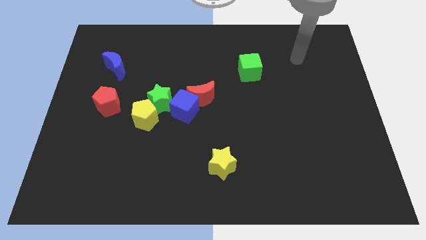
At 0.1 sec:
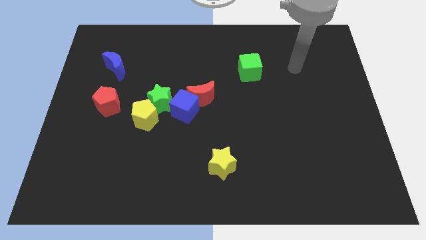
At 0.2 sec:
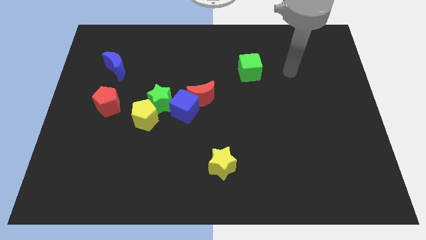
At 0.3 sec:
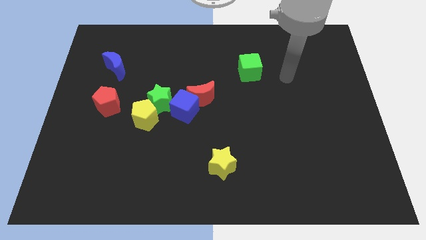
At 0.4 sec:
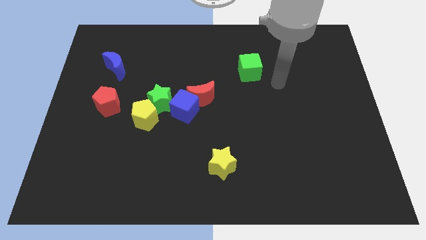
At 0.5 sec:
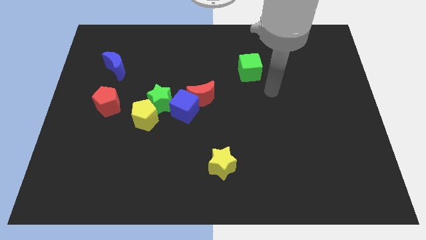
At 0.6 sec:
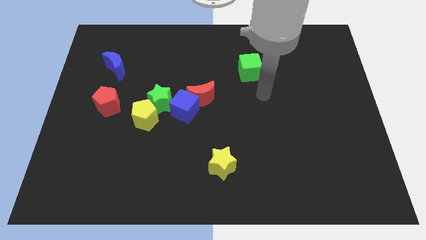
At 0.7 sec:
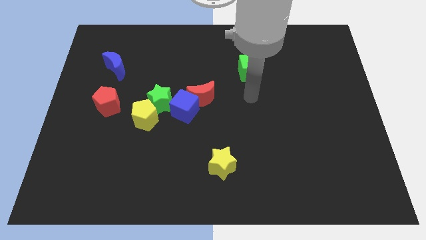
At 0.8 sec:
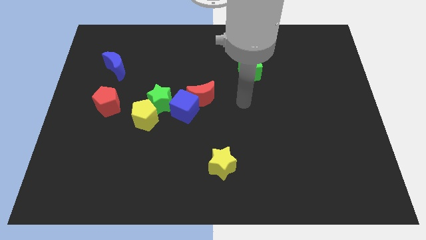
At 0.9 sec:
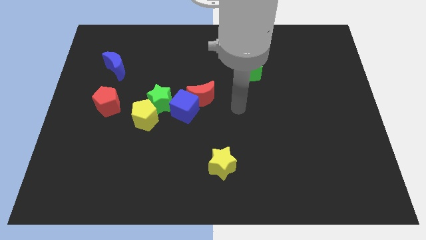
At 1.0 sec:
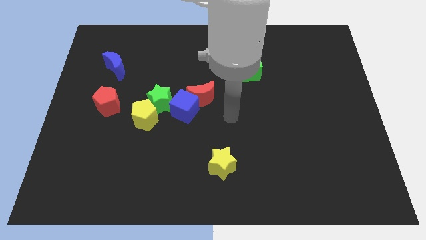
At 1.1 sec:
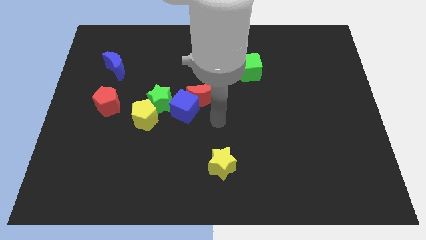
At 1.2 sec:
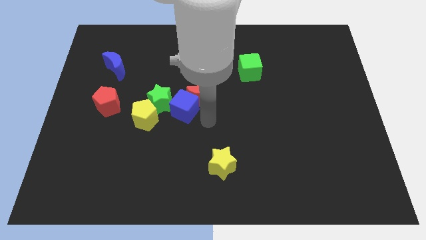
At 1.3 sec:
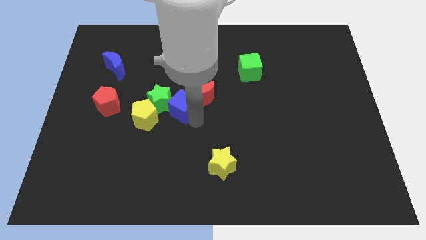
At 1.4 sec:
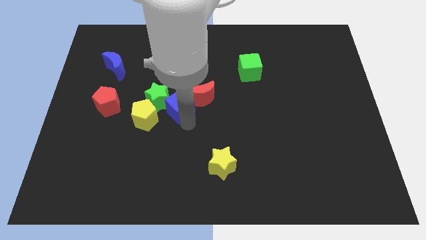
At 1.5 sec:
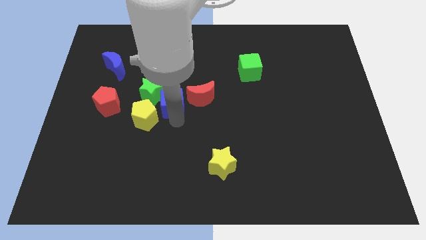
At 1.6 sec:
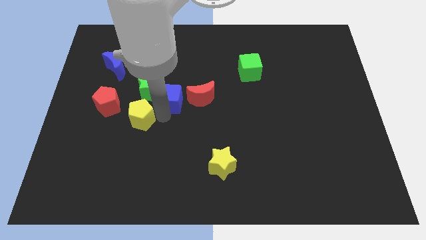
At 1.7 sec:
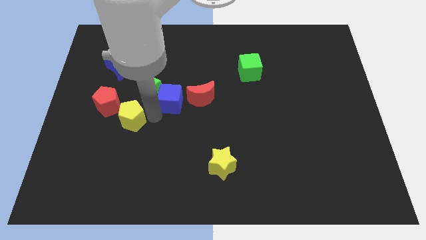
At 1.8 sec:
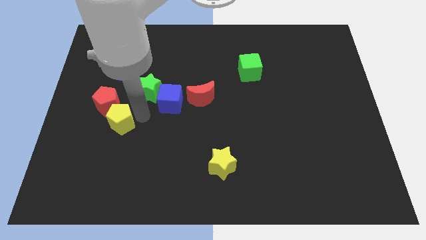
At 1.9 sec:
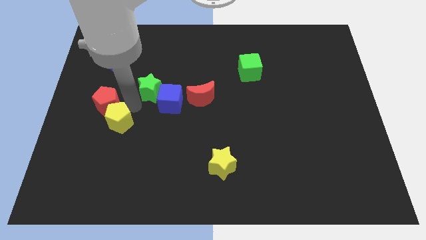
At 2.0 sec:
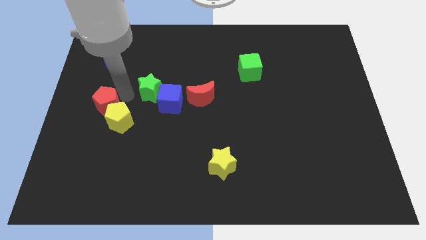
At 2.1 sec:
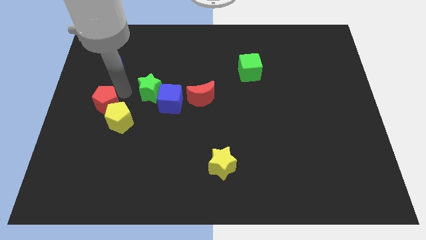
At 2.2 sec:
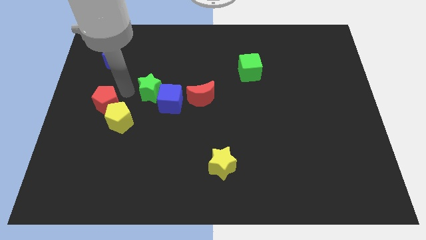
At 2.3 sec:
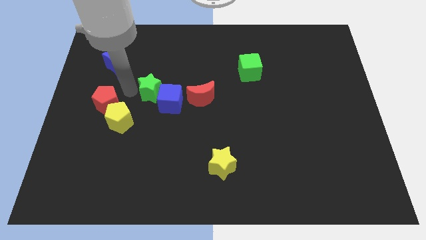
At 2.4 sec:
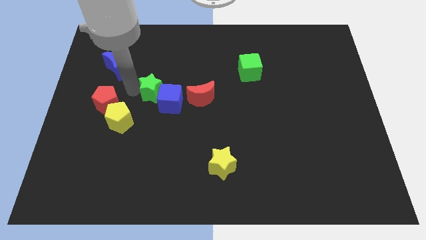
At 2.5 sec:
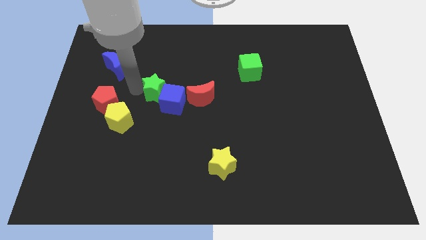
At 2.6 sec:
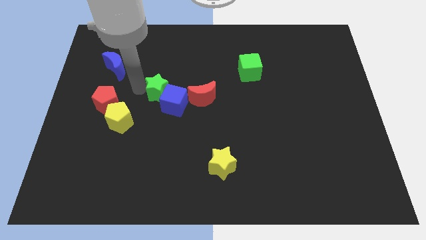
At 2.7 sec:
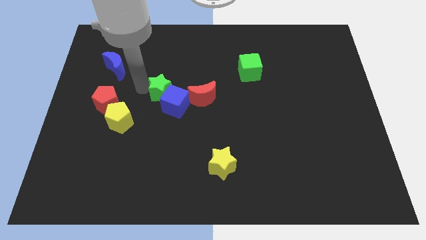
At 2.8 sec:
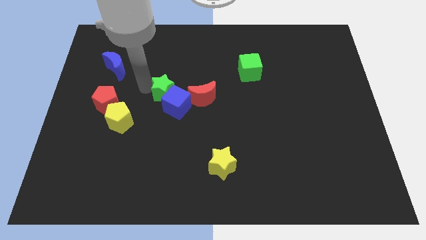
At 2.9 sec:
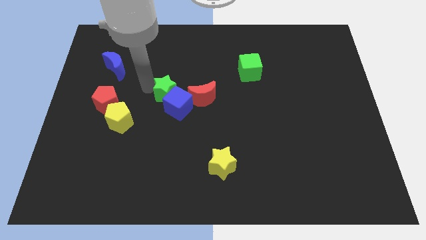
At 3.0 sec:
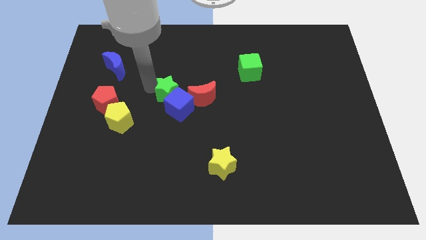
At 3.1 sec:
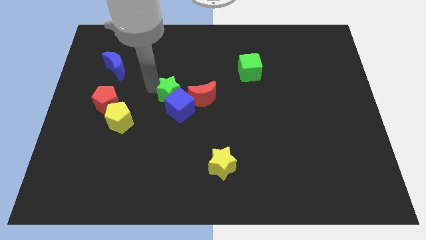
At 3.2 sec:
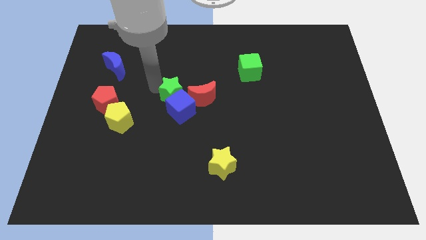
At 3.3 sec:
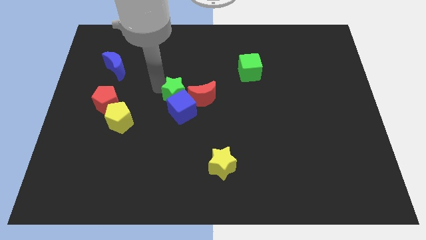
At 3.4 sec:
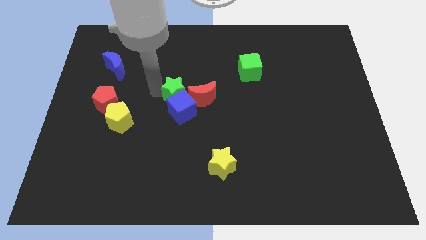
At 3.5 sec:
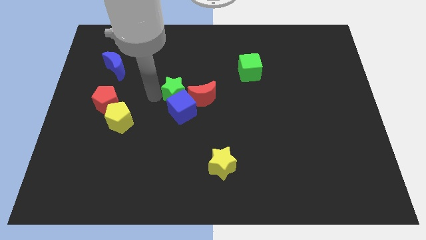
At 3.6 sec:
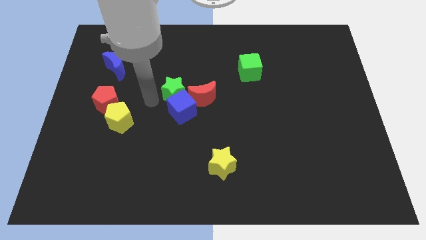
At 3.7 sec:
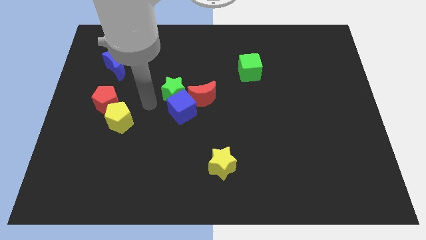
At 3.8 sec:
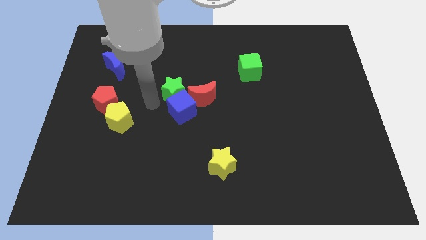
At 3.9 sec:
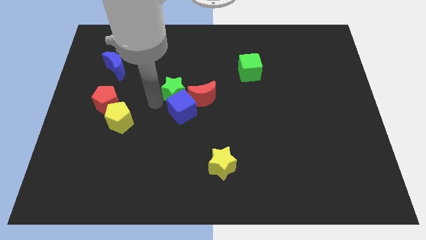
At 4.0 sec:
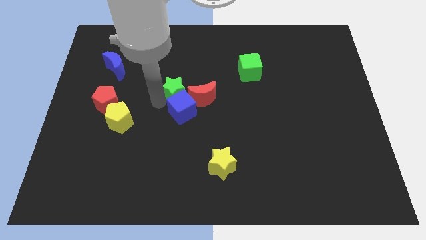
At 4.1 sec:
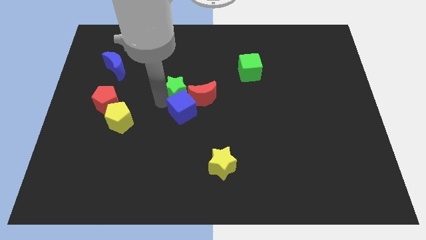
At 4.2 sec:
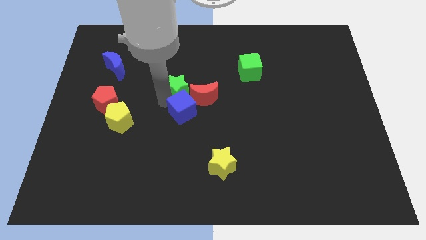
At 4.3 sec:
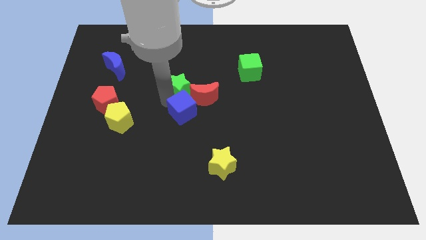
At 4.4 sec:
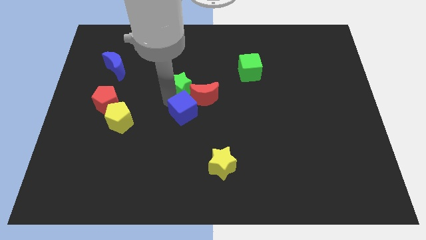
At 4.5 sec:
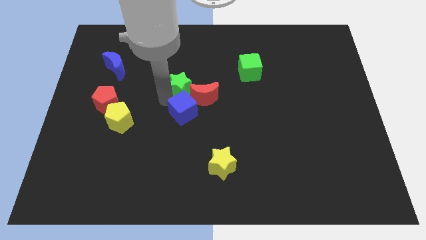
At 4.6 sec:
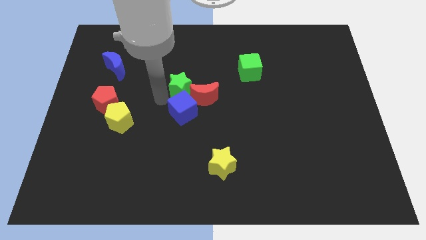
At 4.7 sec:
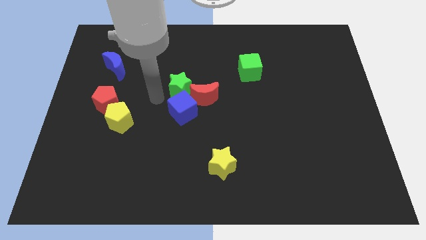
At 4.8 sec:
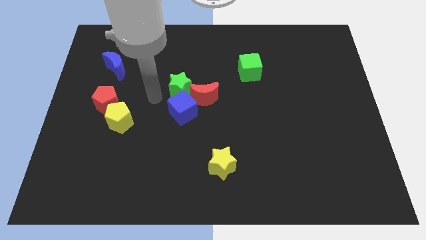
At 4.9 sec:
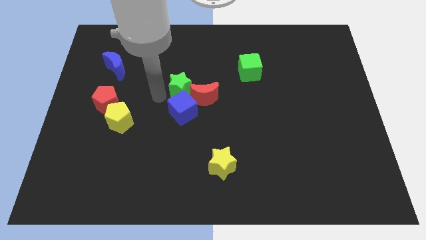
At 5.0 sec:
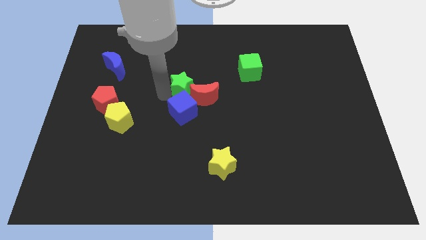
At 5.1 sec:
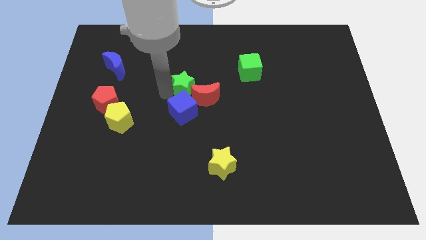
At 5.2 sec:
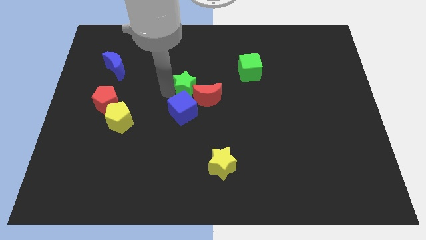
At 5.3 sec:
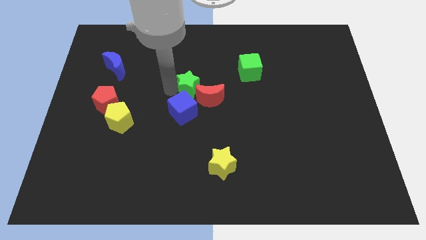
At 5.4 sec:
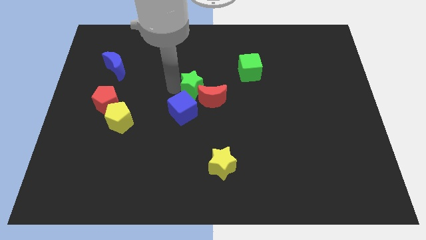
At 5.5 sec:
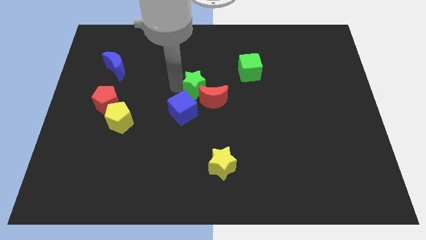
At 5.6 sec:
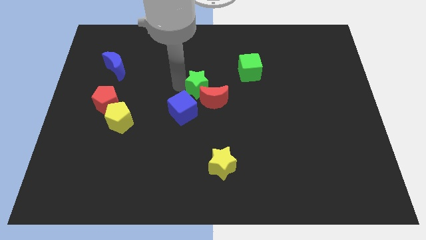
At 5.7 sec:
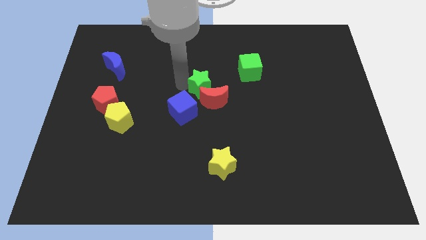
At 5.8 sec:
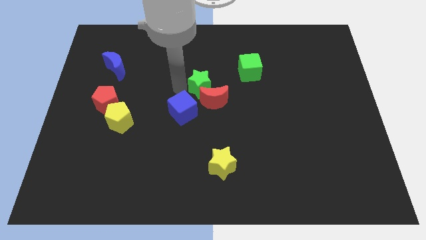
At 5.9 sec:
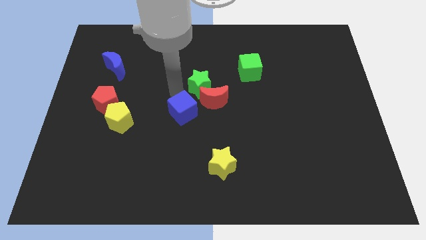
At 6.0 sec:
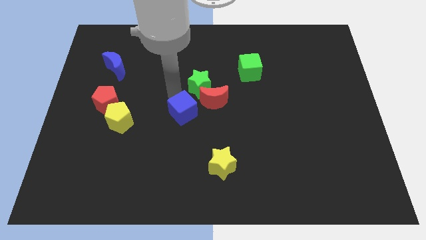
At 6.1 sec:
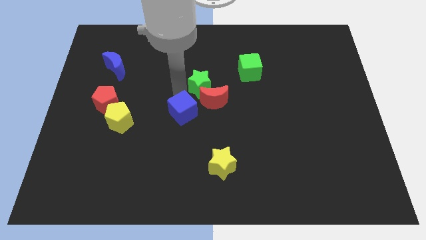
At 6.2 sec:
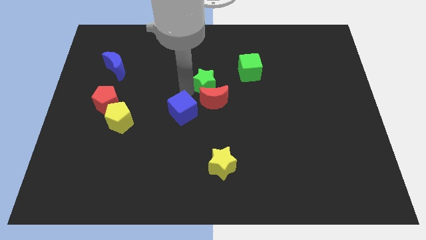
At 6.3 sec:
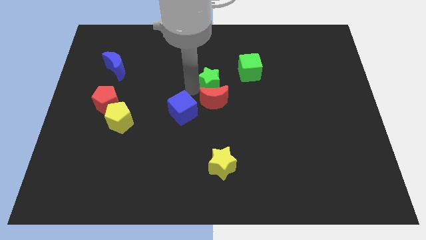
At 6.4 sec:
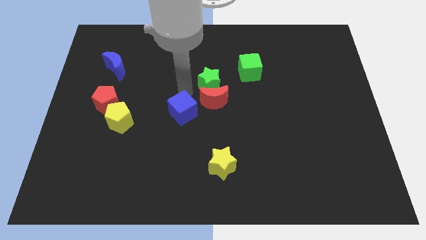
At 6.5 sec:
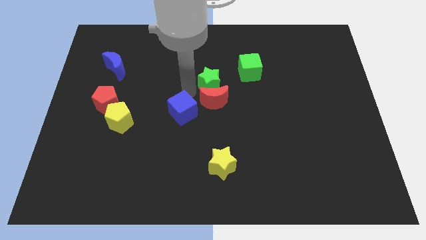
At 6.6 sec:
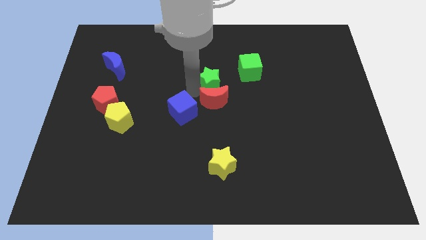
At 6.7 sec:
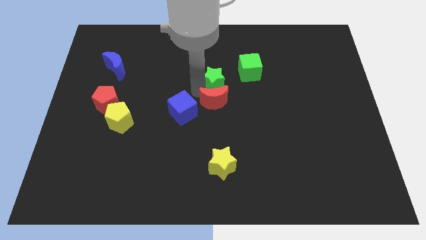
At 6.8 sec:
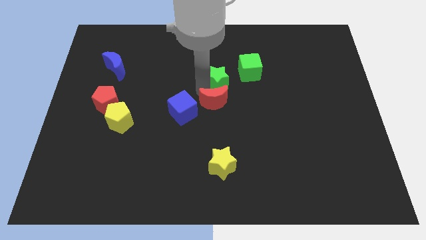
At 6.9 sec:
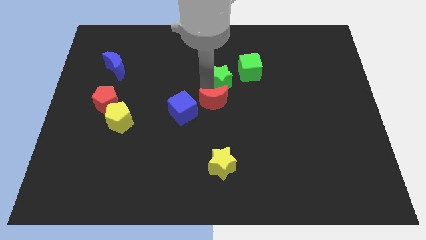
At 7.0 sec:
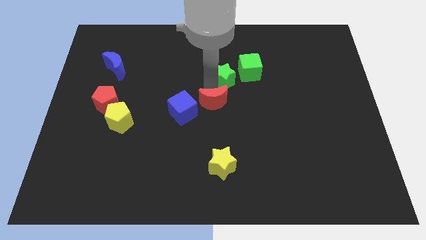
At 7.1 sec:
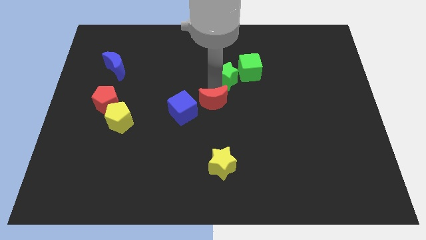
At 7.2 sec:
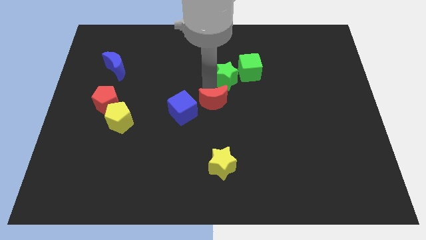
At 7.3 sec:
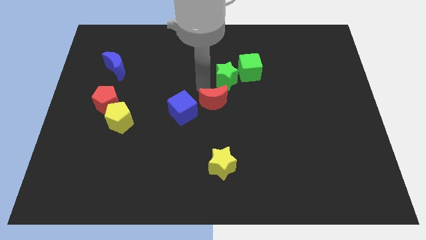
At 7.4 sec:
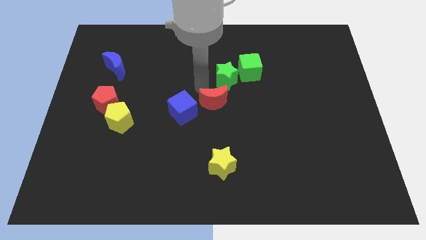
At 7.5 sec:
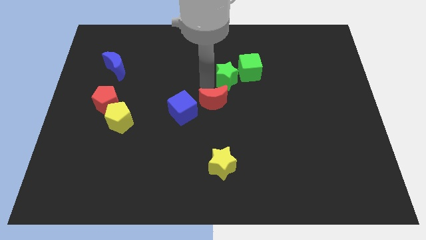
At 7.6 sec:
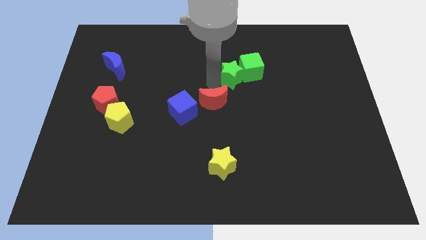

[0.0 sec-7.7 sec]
put the green star next to the green cube
